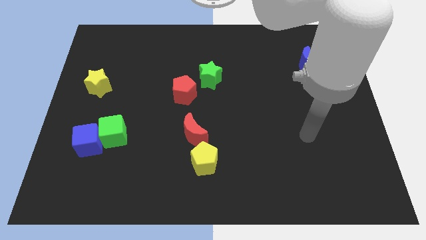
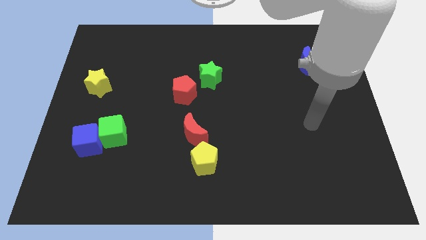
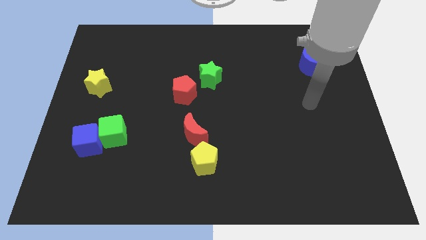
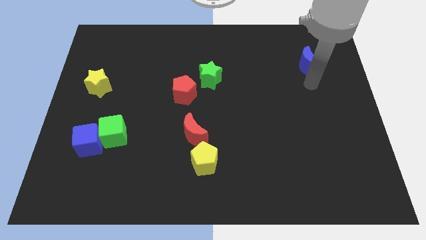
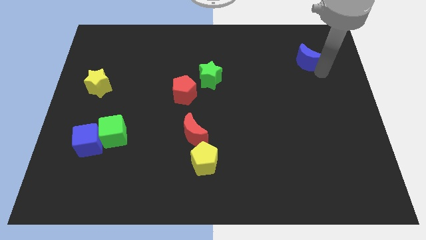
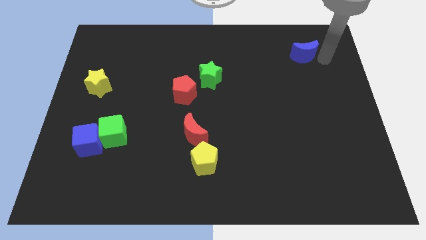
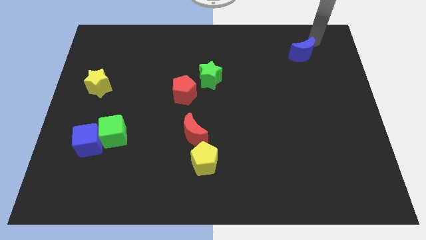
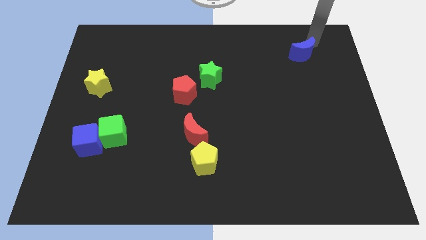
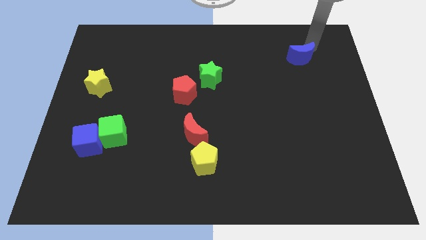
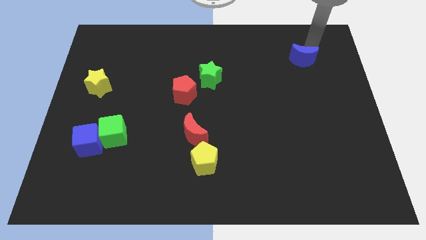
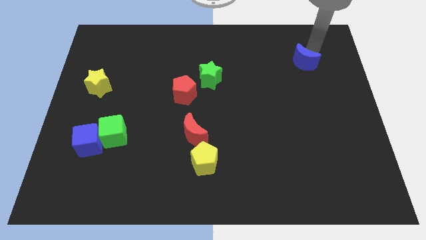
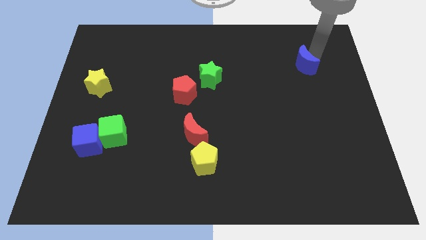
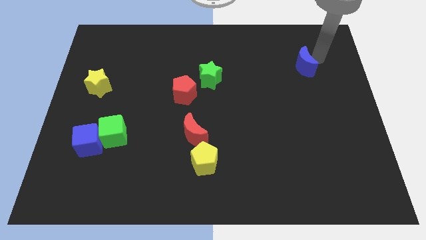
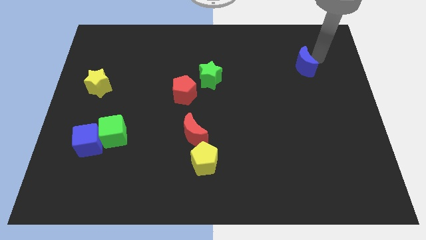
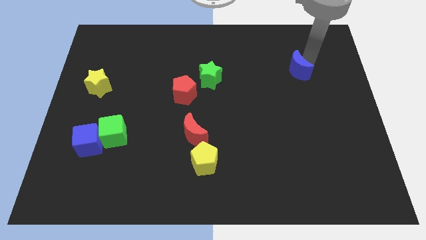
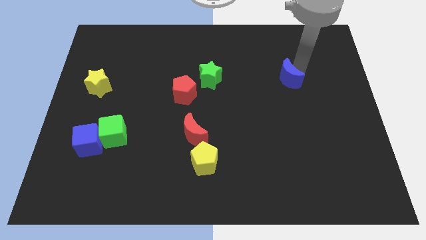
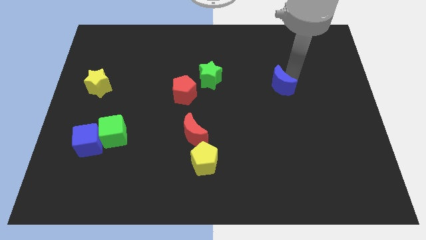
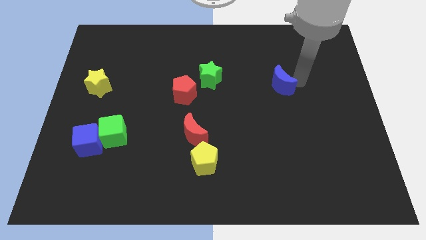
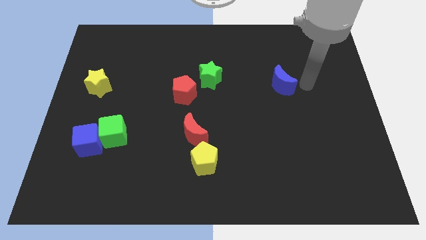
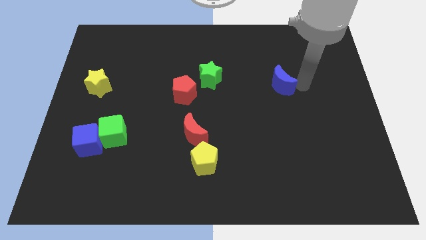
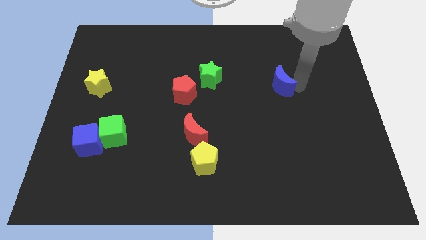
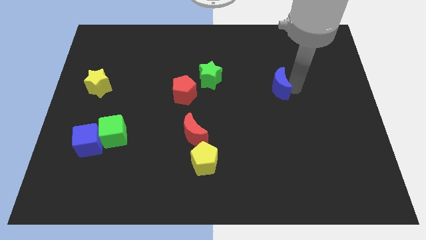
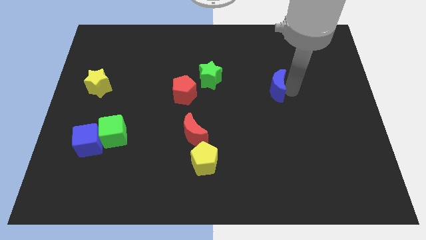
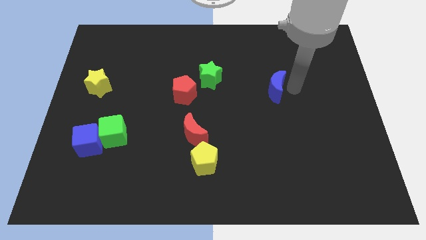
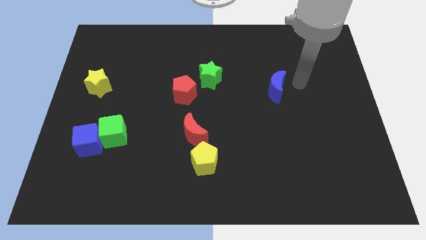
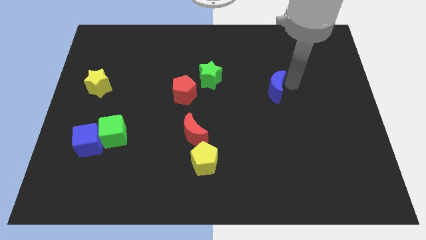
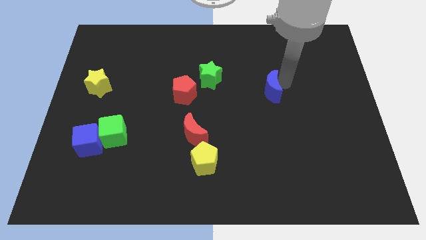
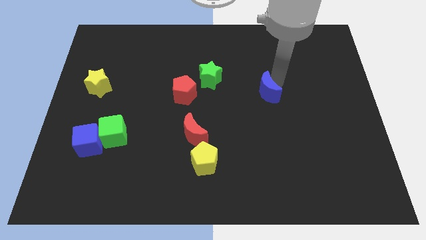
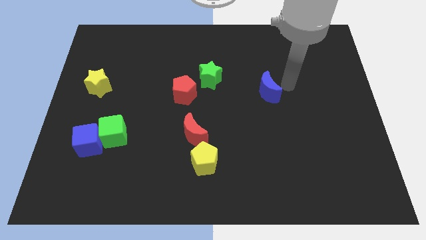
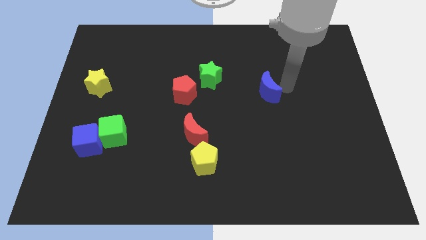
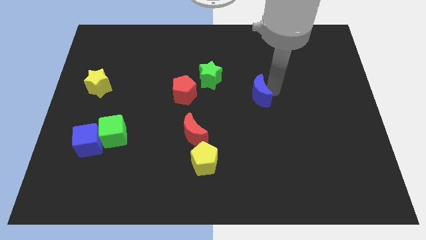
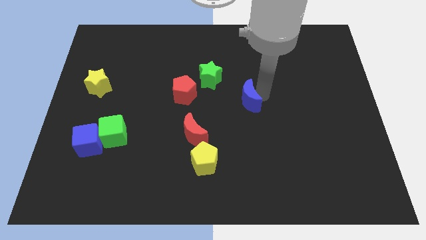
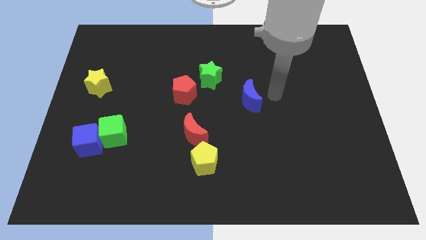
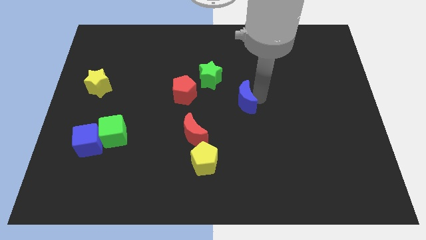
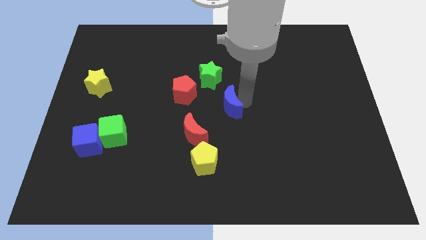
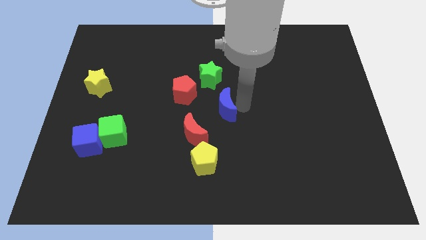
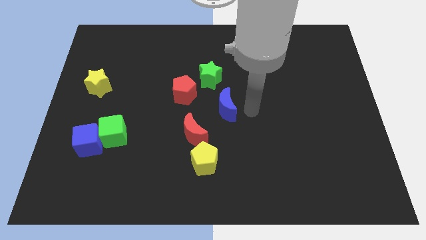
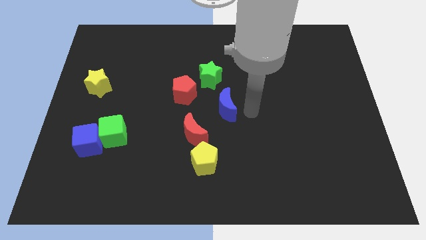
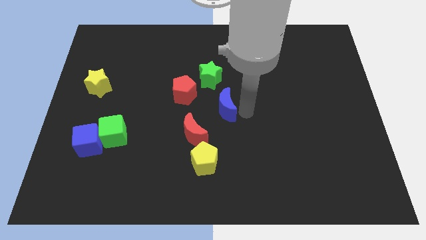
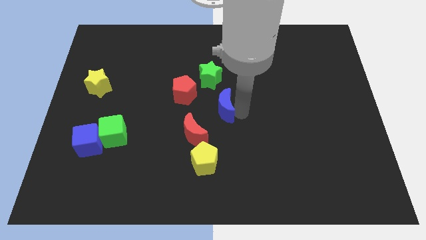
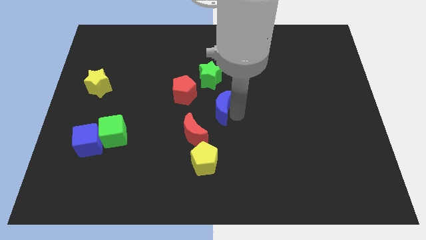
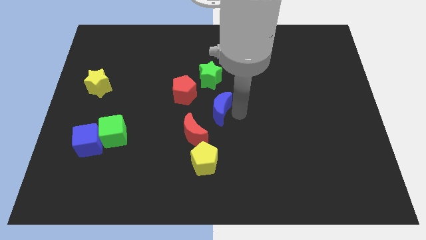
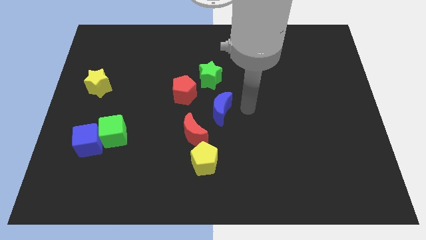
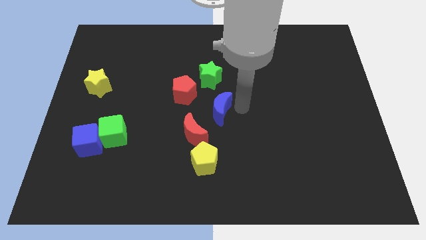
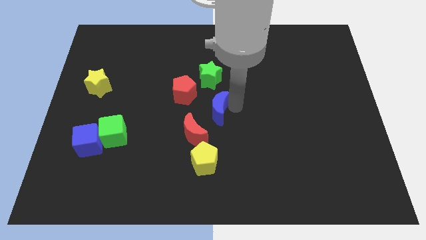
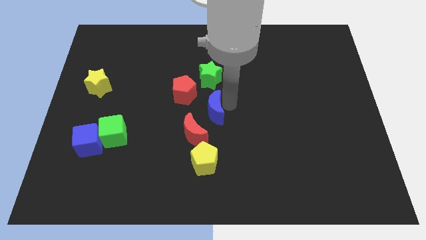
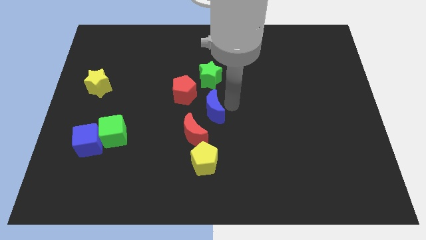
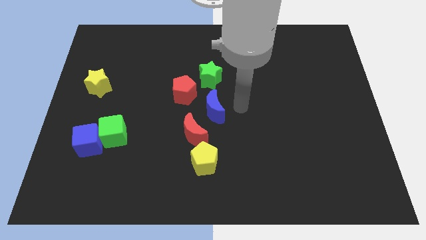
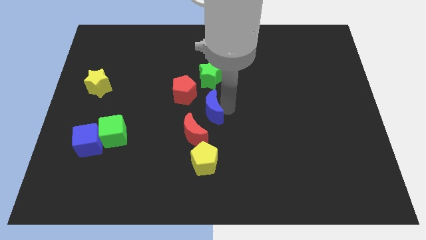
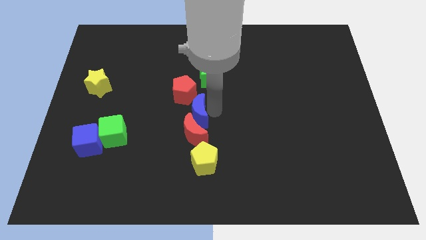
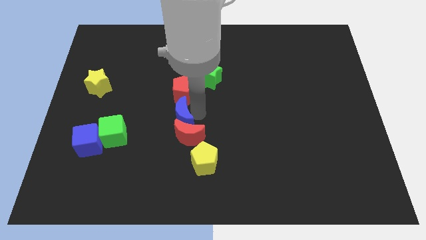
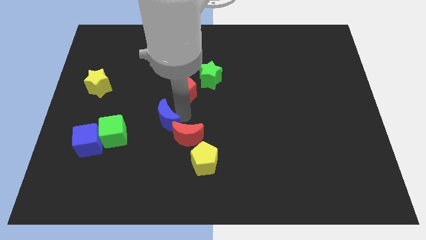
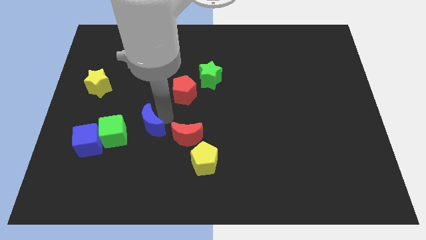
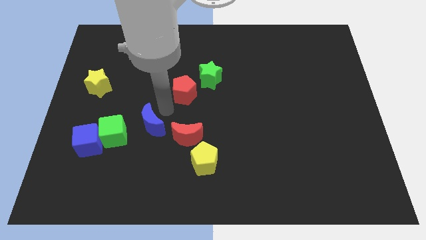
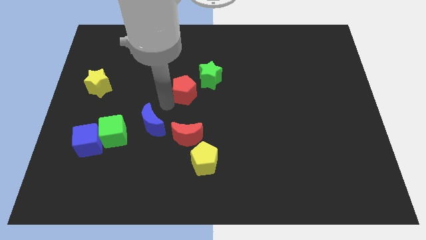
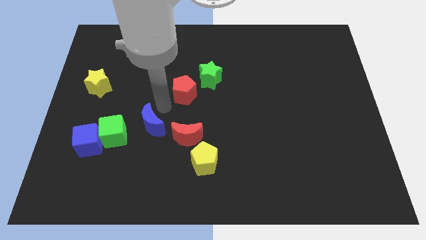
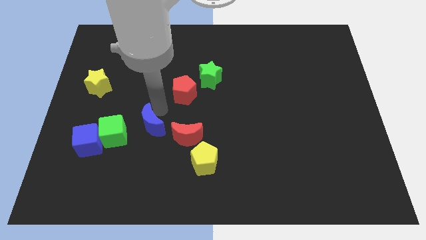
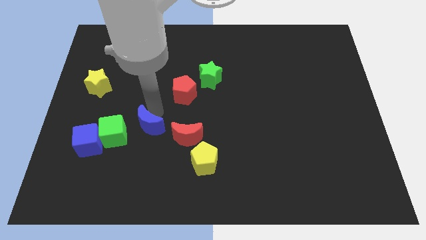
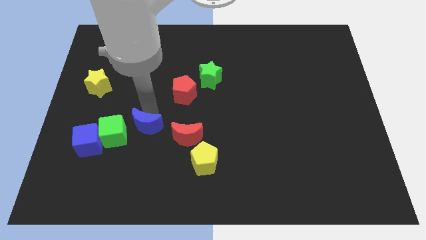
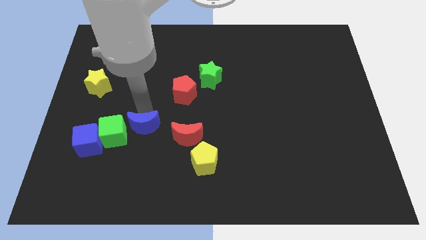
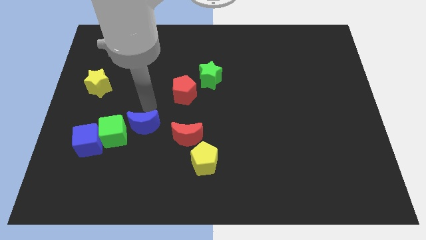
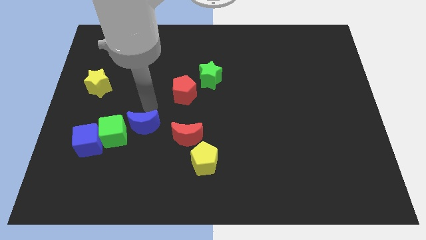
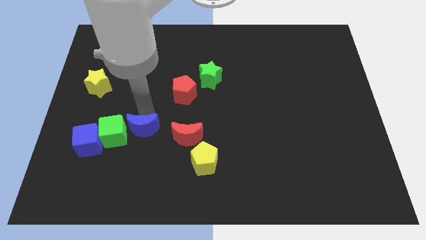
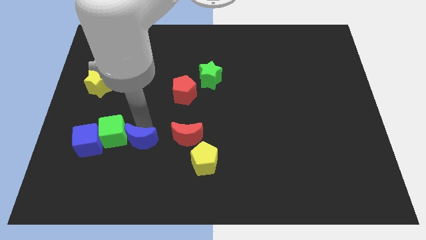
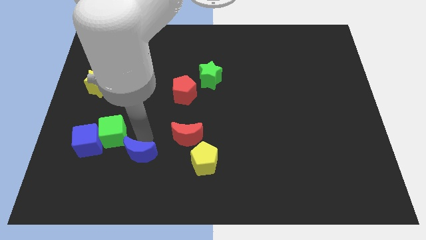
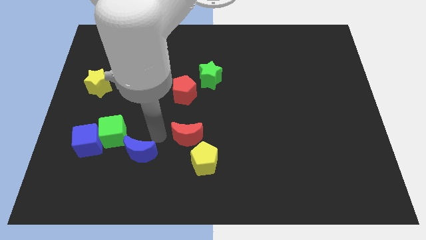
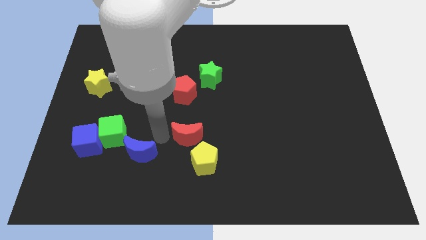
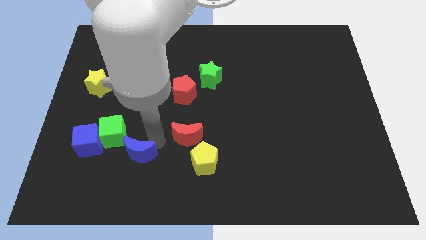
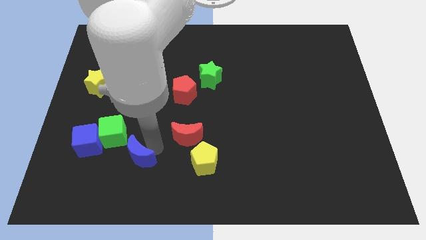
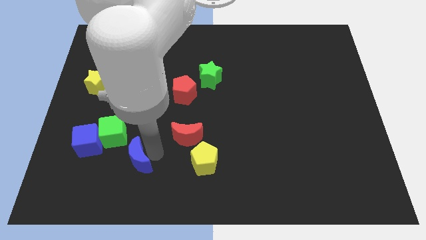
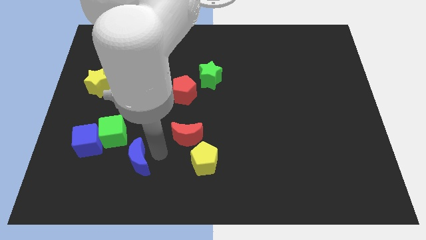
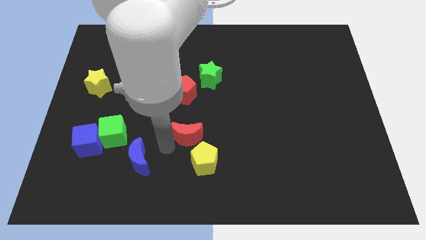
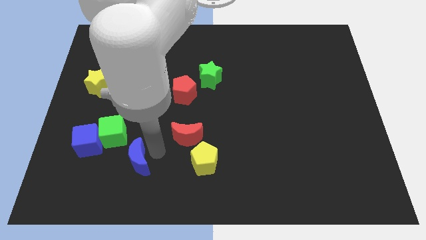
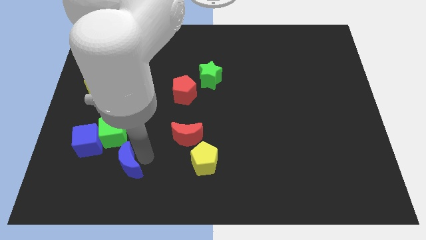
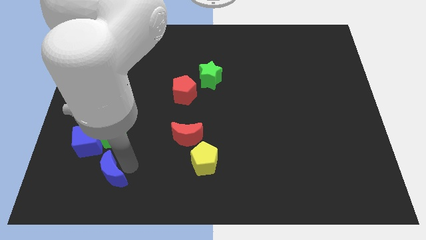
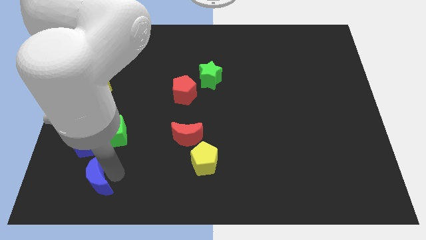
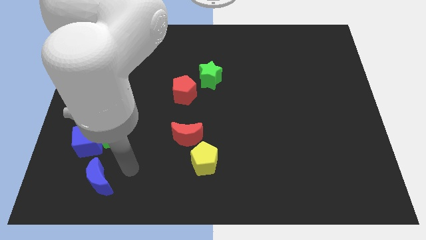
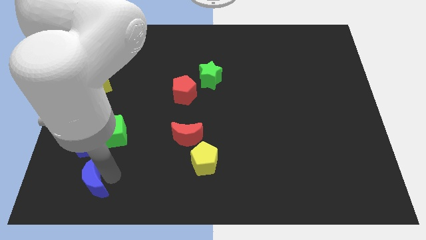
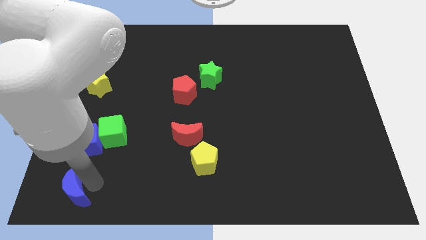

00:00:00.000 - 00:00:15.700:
slide the blue moon to the bottom left of the board
